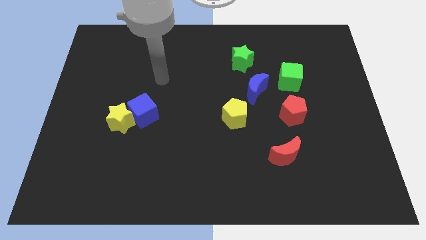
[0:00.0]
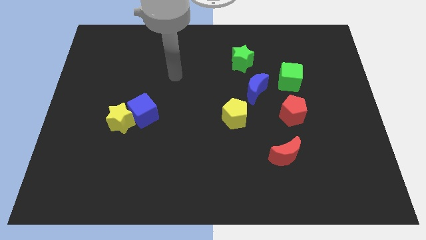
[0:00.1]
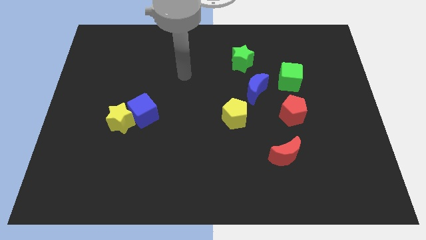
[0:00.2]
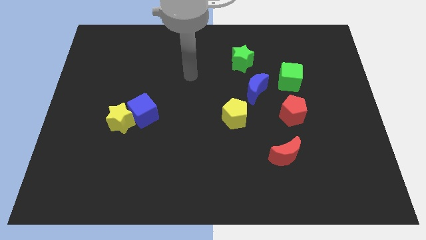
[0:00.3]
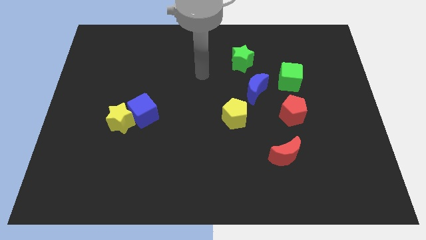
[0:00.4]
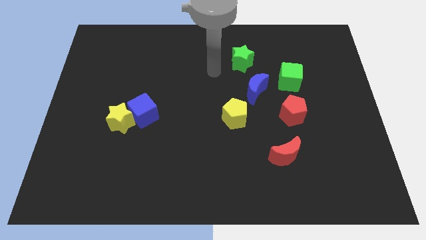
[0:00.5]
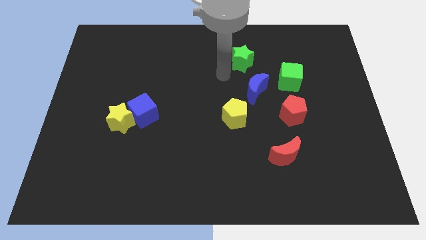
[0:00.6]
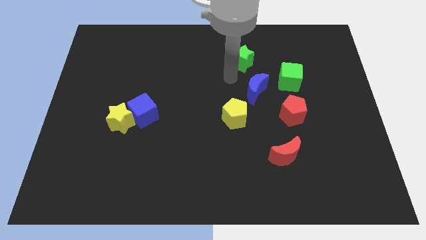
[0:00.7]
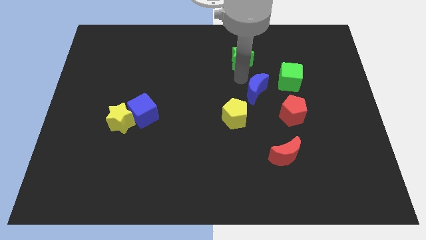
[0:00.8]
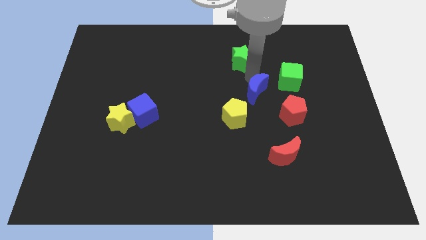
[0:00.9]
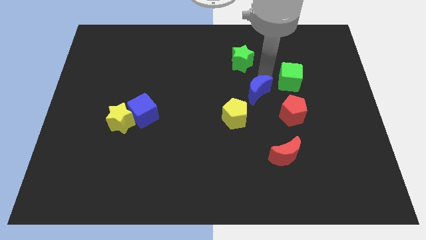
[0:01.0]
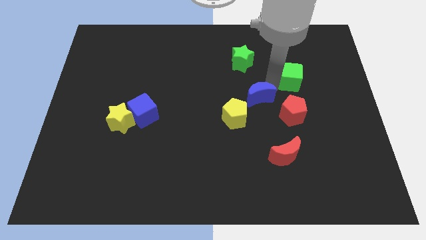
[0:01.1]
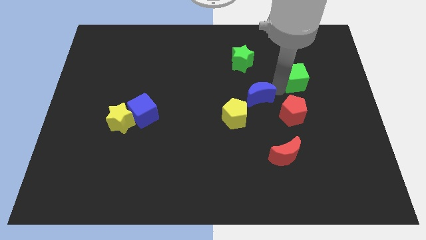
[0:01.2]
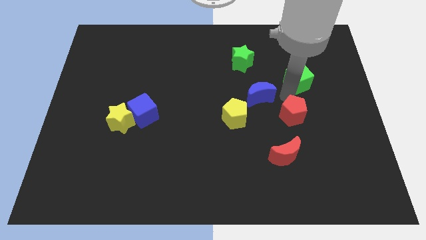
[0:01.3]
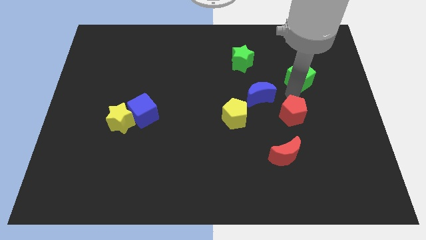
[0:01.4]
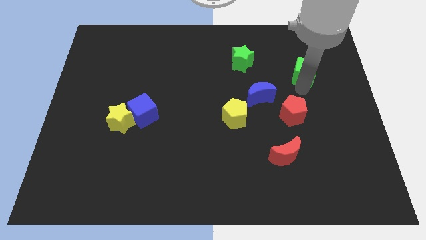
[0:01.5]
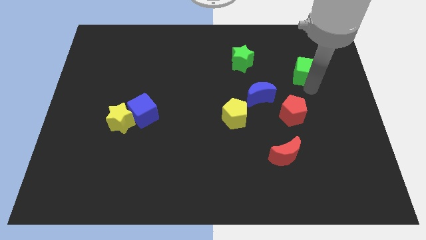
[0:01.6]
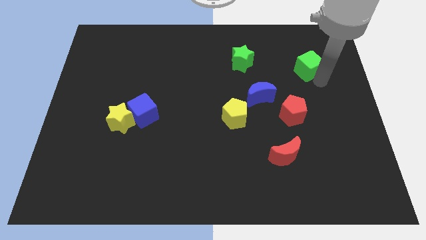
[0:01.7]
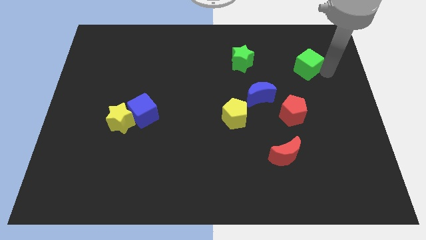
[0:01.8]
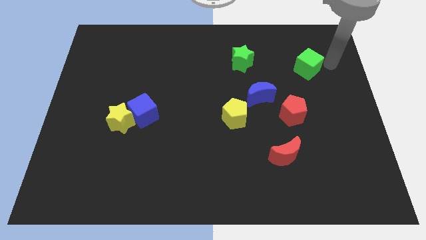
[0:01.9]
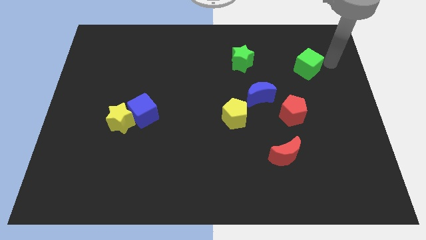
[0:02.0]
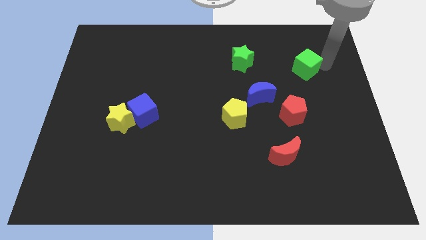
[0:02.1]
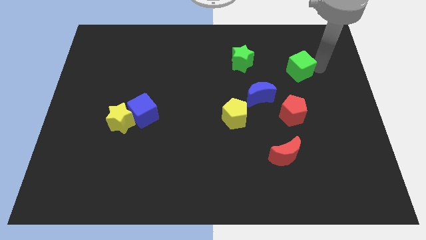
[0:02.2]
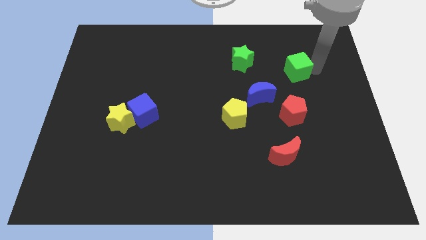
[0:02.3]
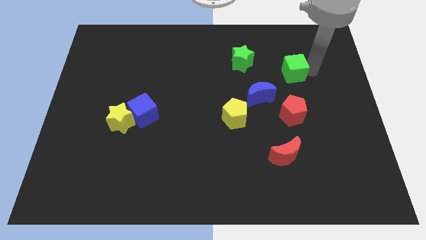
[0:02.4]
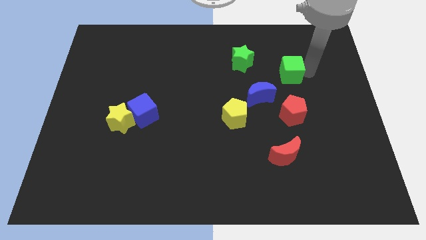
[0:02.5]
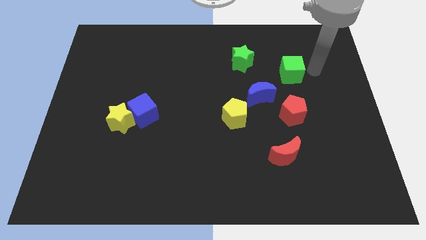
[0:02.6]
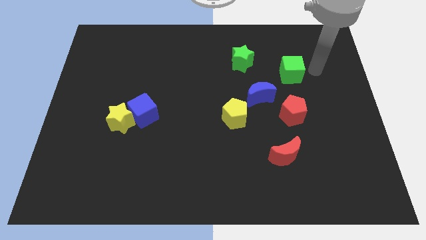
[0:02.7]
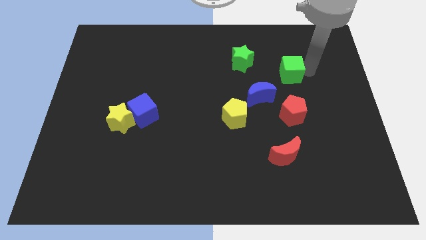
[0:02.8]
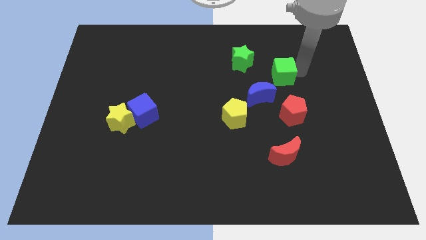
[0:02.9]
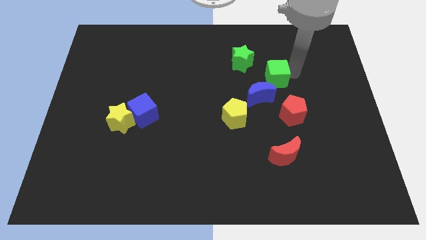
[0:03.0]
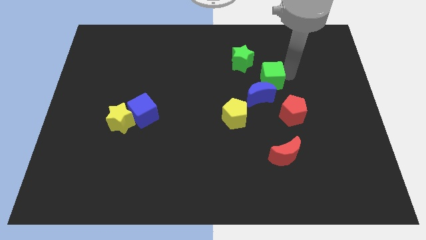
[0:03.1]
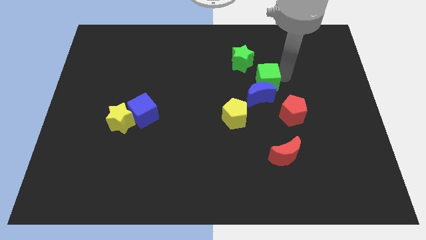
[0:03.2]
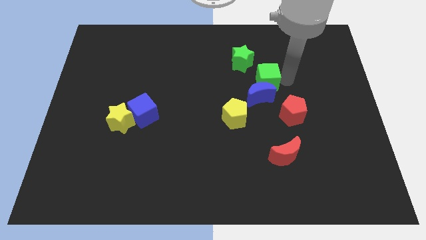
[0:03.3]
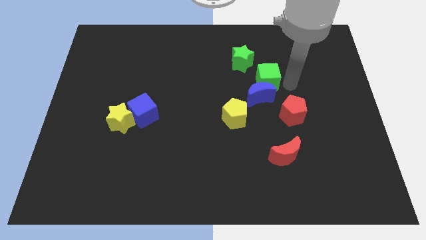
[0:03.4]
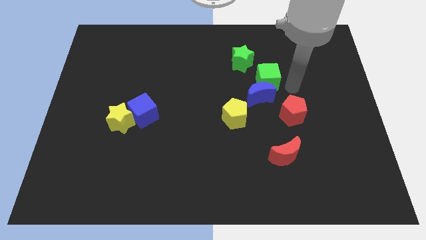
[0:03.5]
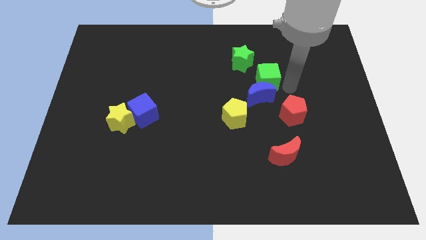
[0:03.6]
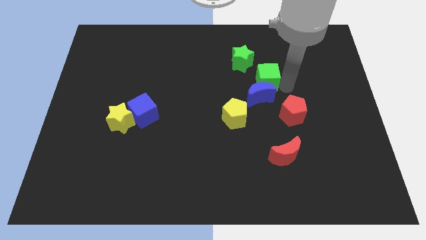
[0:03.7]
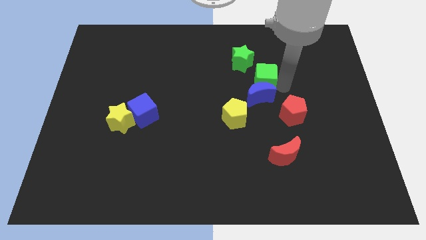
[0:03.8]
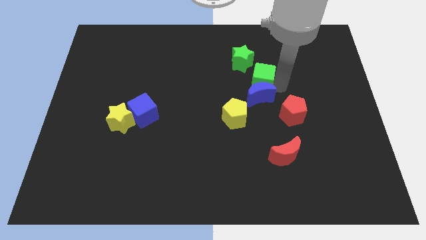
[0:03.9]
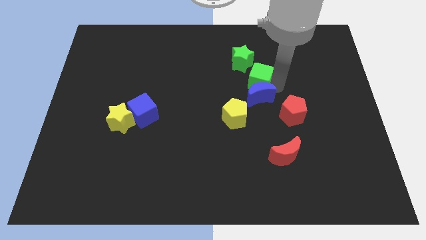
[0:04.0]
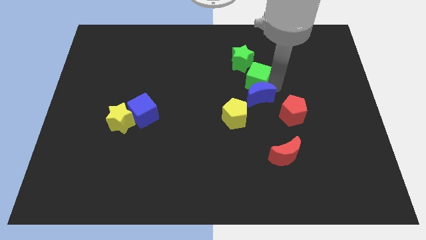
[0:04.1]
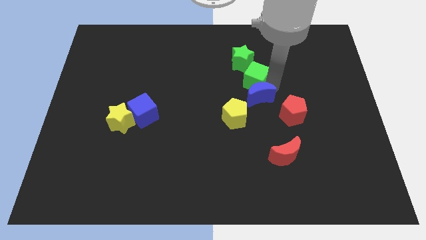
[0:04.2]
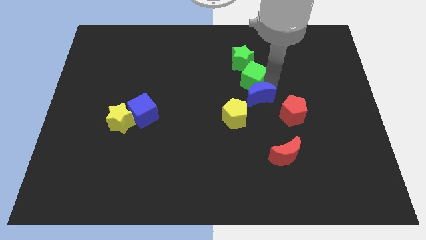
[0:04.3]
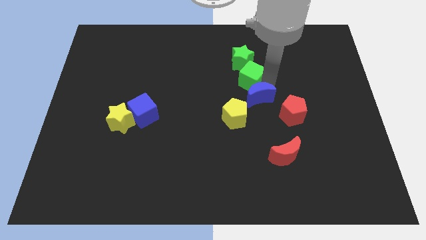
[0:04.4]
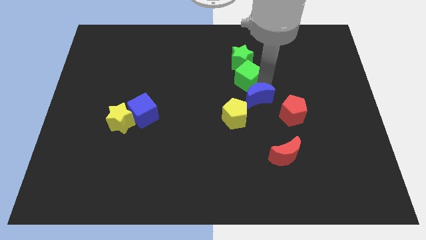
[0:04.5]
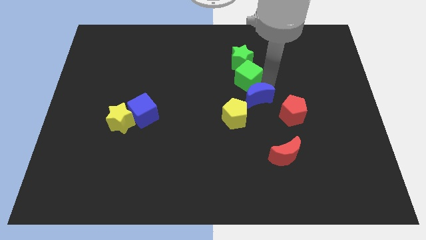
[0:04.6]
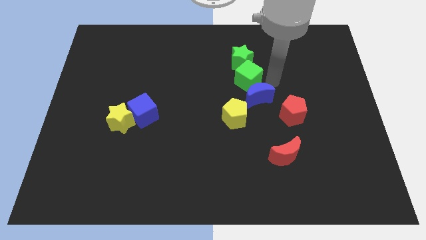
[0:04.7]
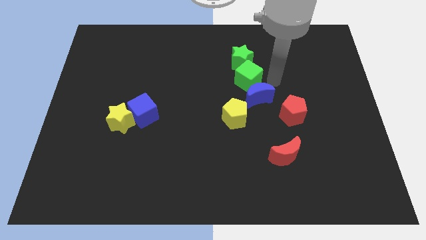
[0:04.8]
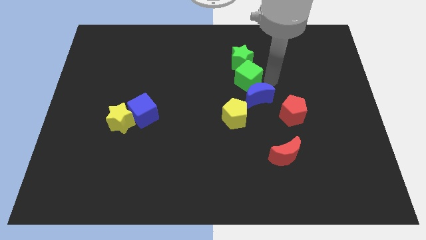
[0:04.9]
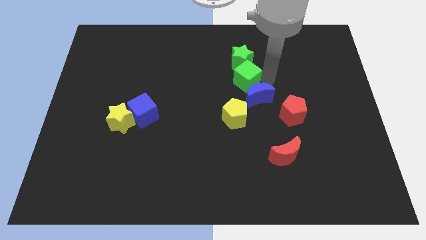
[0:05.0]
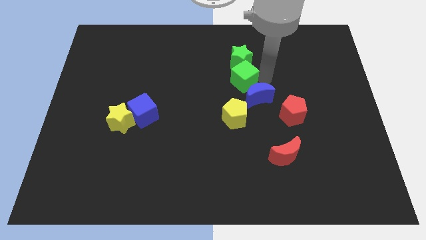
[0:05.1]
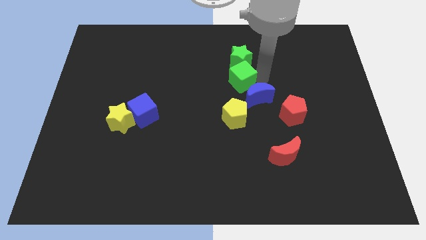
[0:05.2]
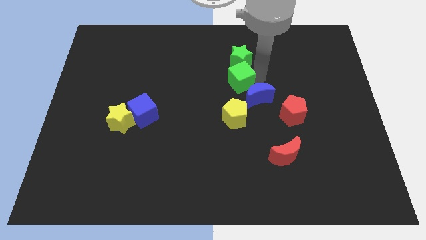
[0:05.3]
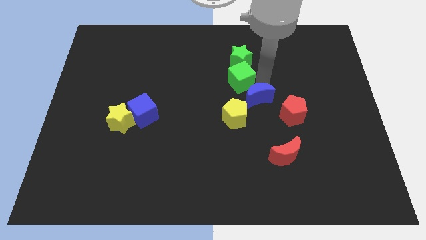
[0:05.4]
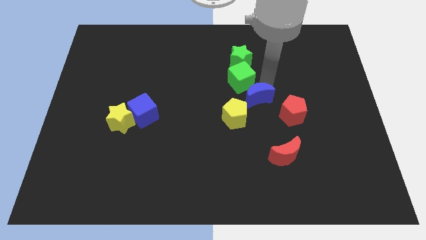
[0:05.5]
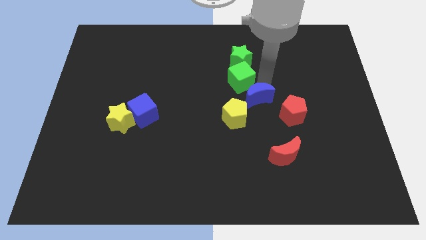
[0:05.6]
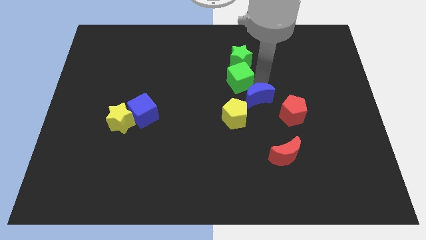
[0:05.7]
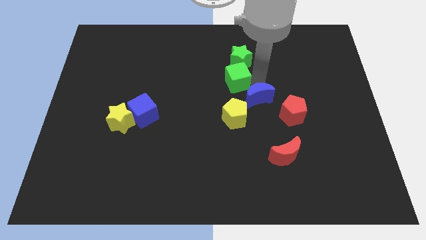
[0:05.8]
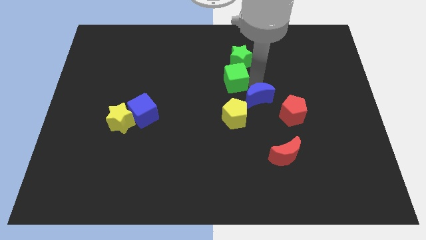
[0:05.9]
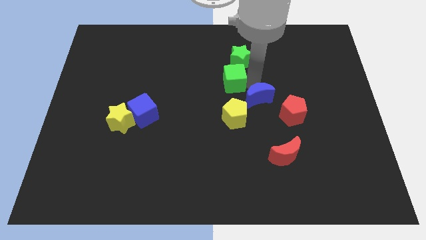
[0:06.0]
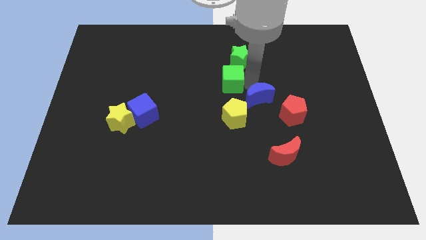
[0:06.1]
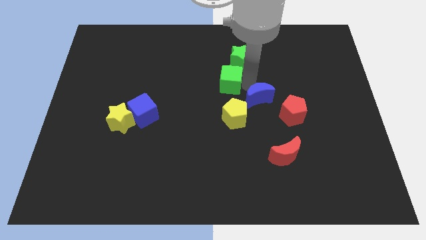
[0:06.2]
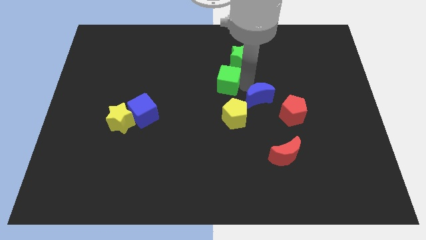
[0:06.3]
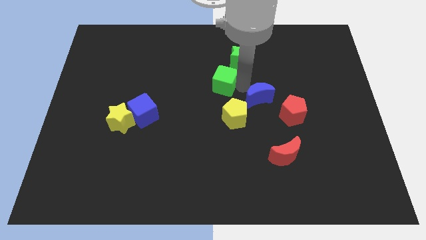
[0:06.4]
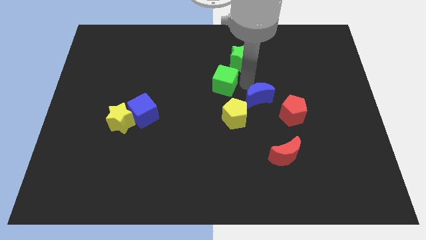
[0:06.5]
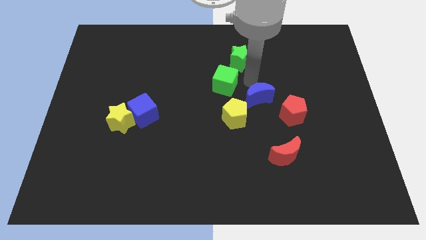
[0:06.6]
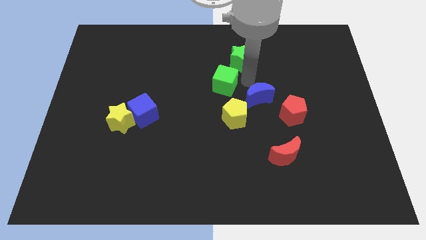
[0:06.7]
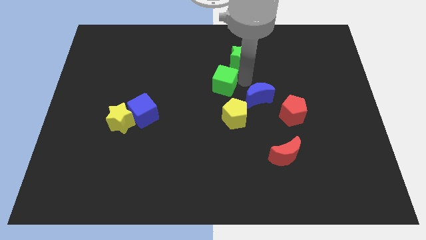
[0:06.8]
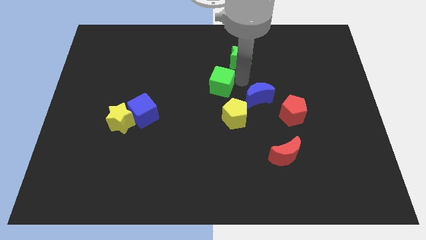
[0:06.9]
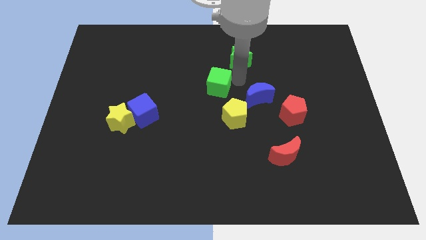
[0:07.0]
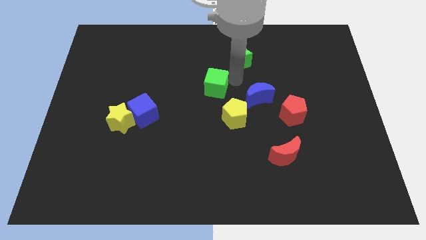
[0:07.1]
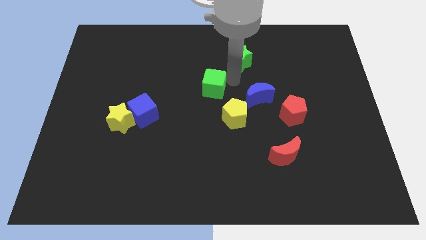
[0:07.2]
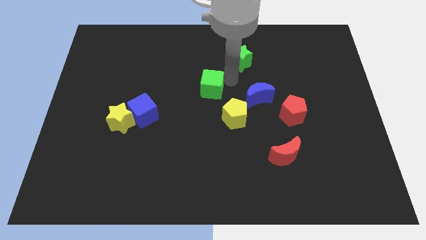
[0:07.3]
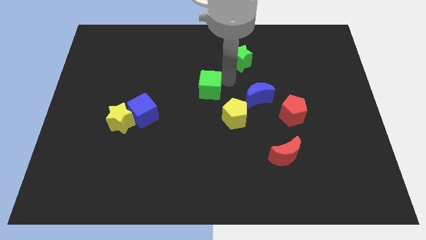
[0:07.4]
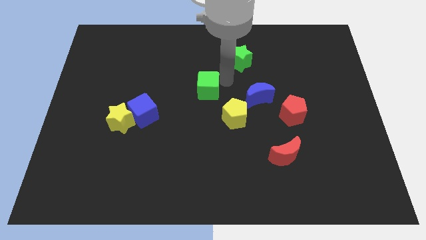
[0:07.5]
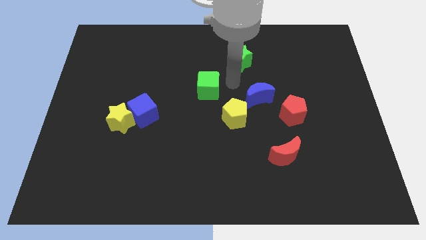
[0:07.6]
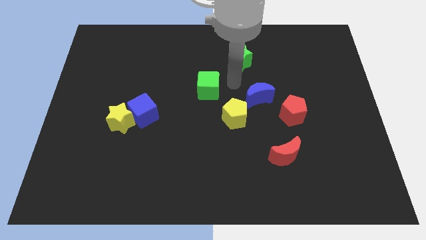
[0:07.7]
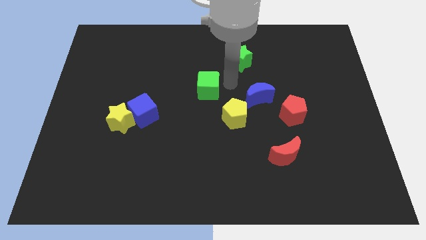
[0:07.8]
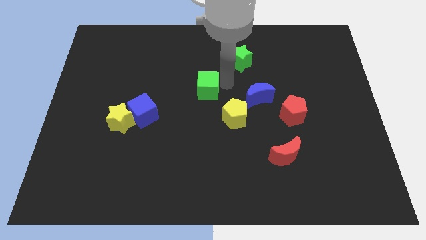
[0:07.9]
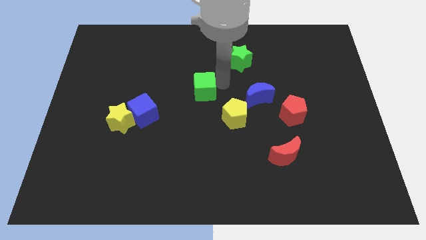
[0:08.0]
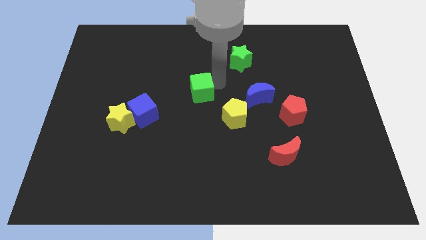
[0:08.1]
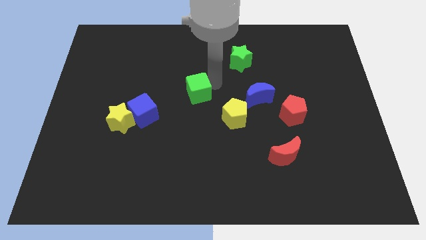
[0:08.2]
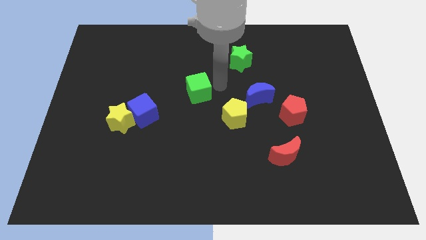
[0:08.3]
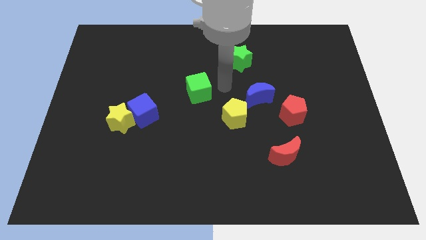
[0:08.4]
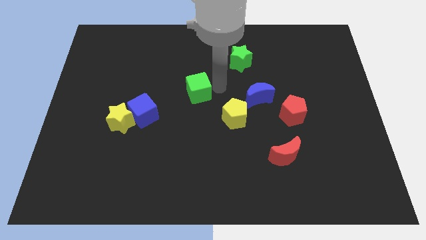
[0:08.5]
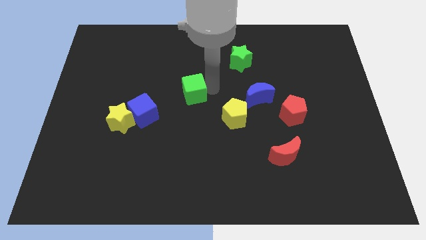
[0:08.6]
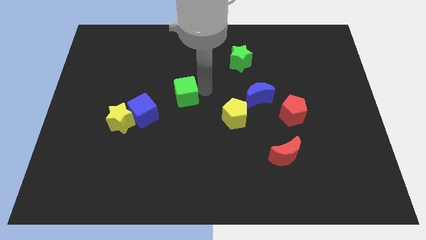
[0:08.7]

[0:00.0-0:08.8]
slide the green cube to the top right side of the blue cube
